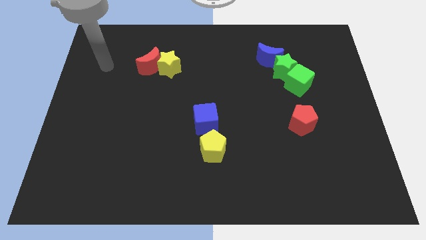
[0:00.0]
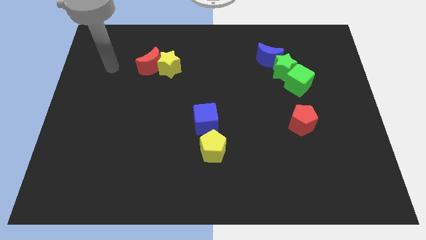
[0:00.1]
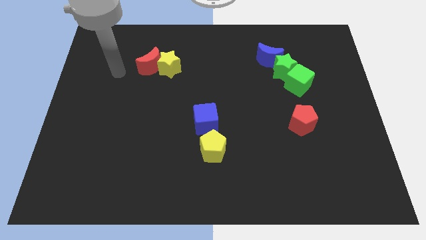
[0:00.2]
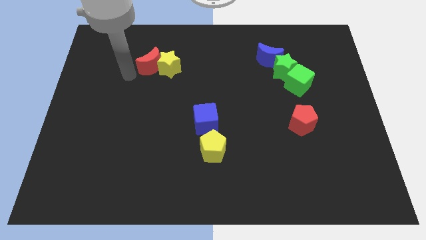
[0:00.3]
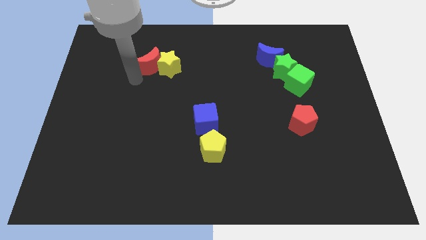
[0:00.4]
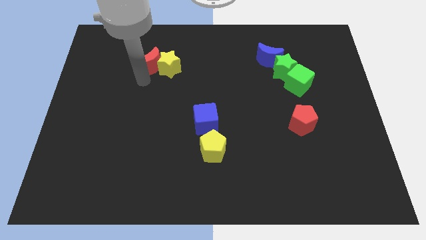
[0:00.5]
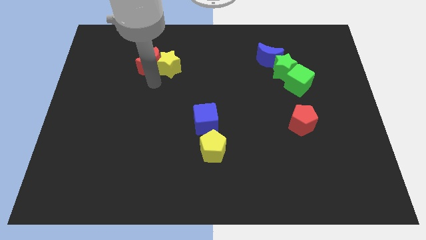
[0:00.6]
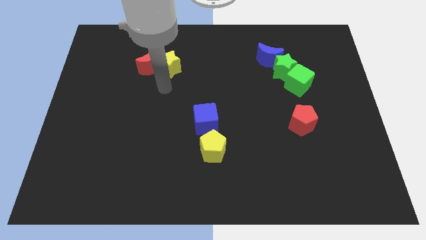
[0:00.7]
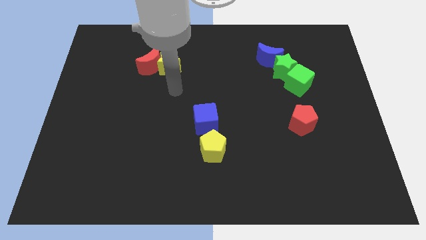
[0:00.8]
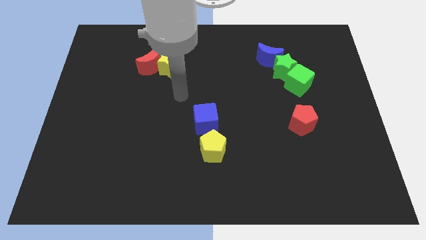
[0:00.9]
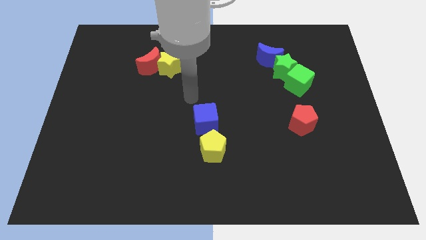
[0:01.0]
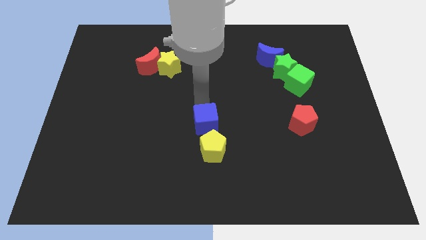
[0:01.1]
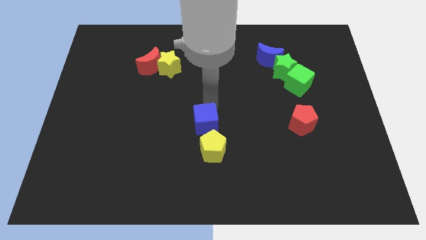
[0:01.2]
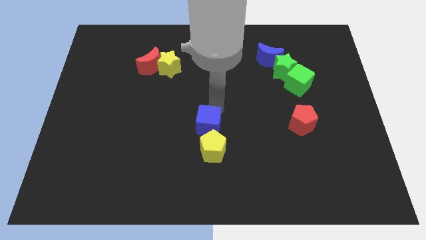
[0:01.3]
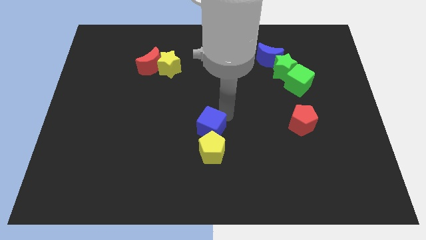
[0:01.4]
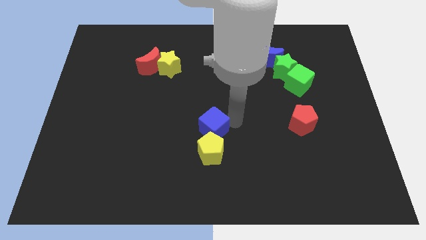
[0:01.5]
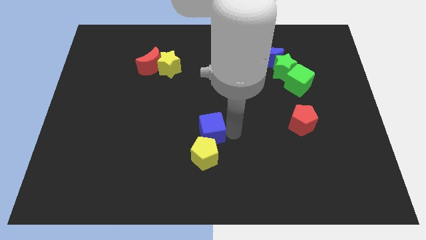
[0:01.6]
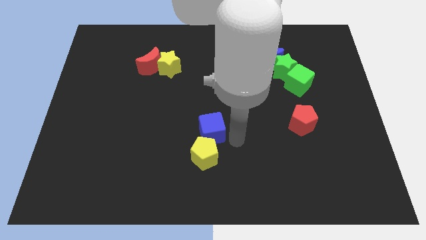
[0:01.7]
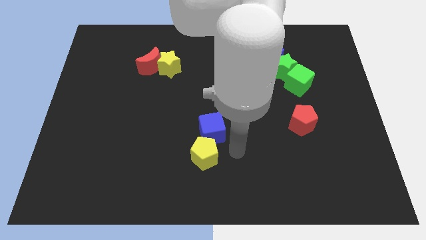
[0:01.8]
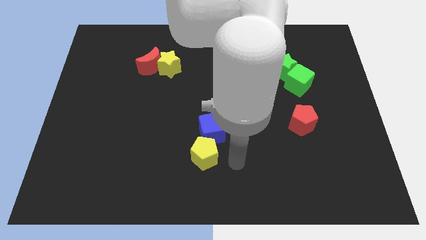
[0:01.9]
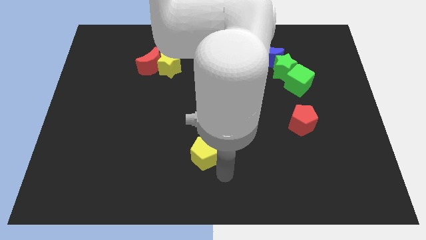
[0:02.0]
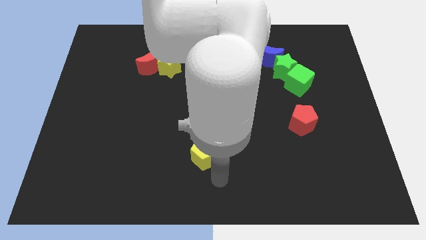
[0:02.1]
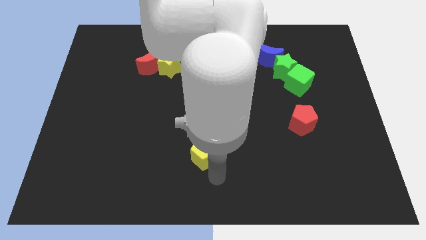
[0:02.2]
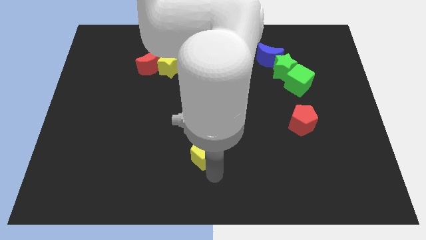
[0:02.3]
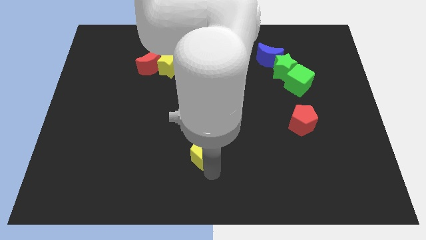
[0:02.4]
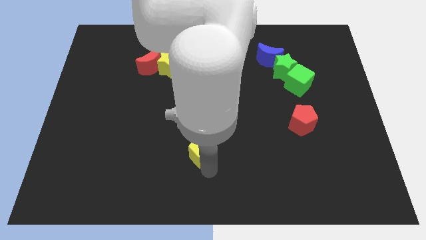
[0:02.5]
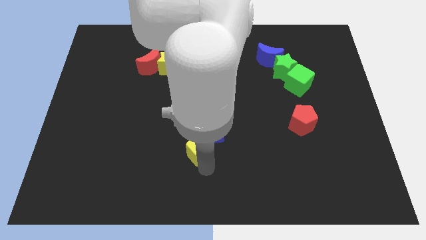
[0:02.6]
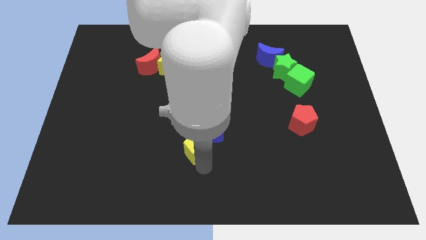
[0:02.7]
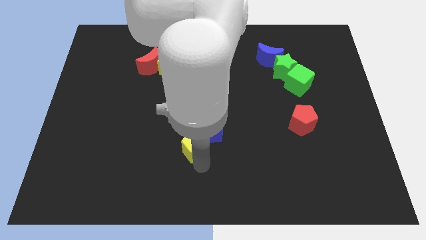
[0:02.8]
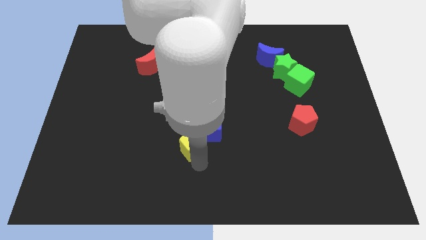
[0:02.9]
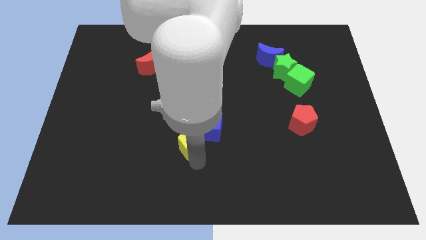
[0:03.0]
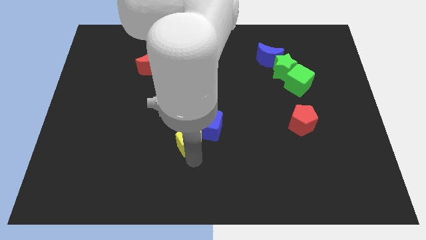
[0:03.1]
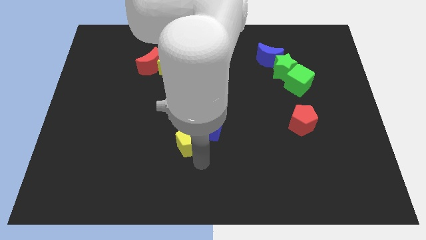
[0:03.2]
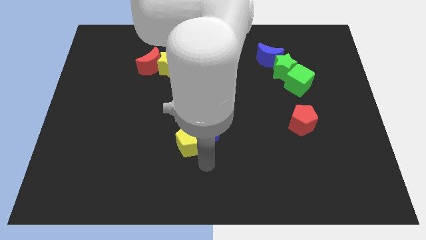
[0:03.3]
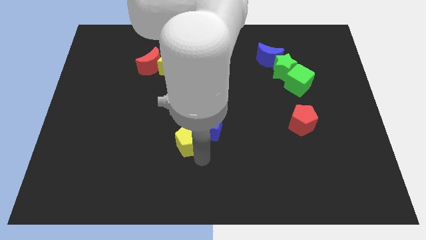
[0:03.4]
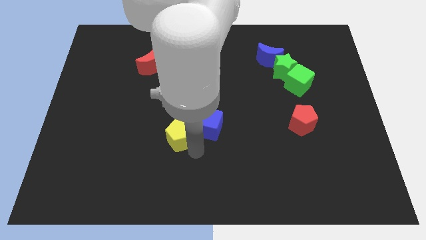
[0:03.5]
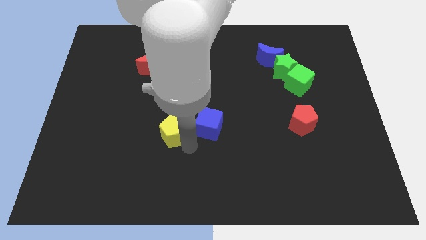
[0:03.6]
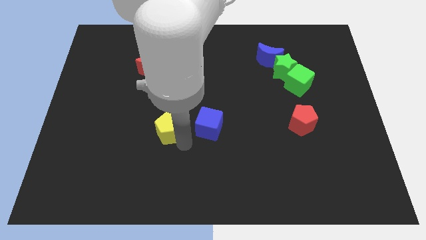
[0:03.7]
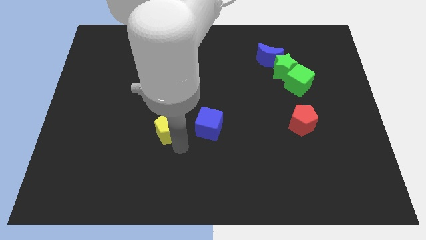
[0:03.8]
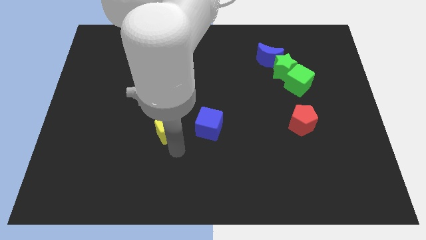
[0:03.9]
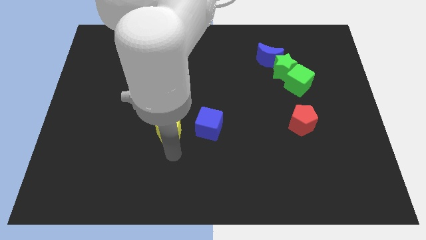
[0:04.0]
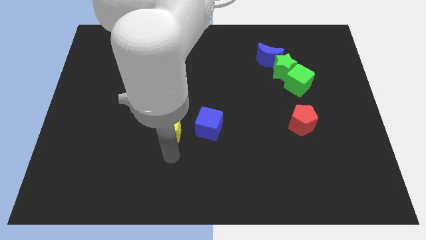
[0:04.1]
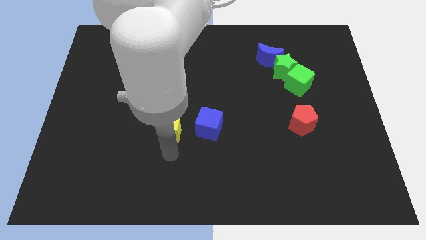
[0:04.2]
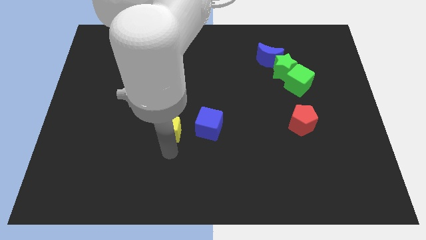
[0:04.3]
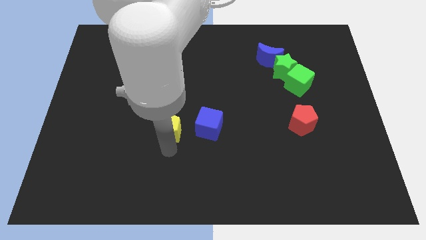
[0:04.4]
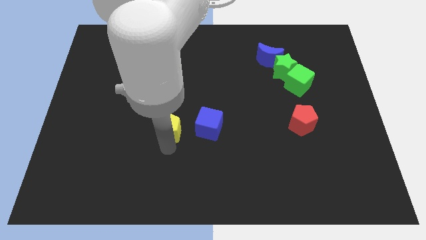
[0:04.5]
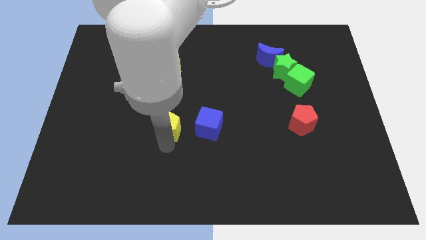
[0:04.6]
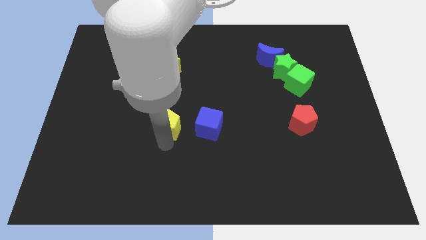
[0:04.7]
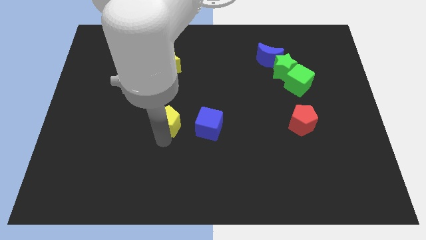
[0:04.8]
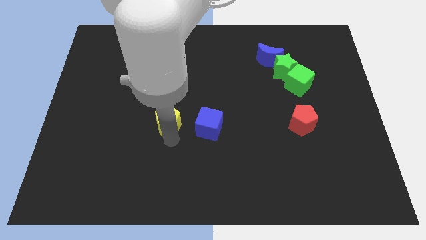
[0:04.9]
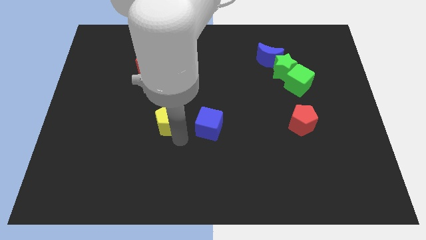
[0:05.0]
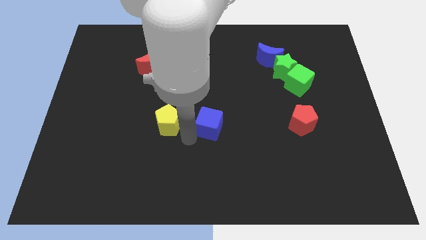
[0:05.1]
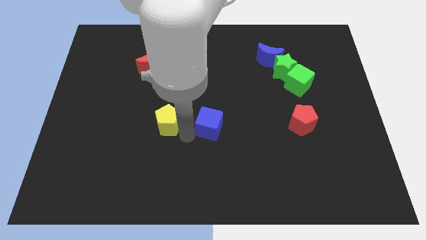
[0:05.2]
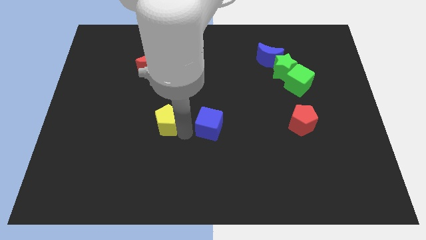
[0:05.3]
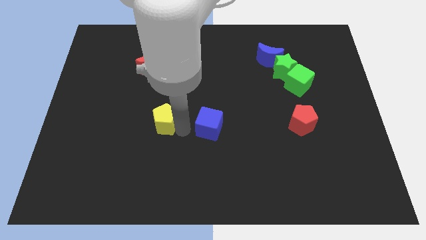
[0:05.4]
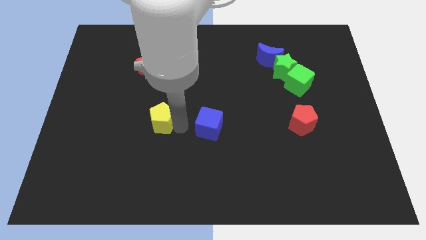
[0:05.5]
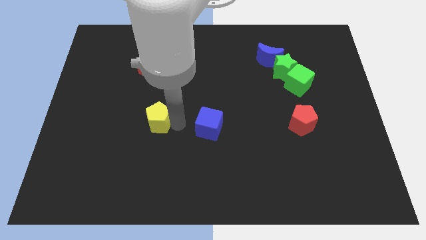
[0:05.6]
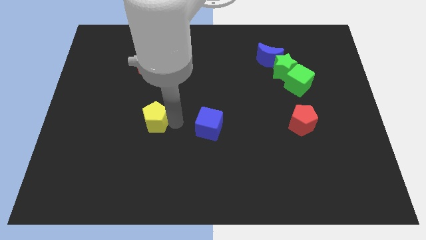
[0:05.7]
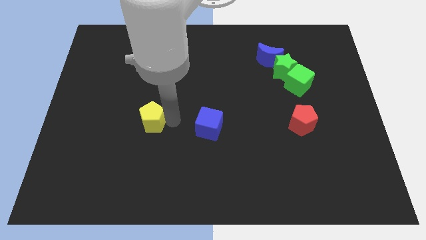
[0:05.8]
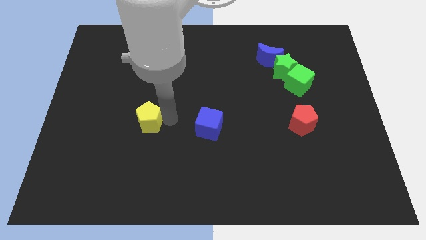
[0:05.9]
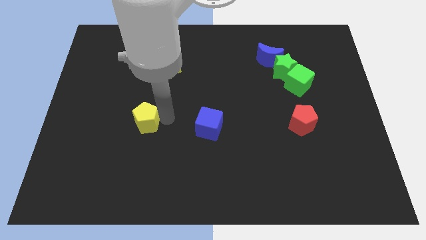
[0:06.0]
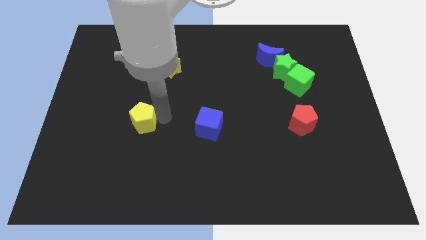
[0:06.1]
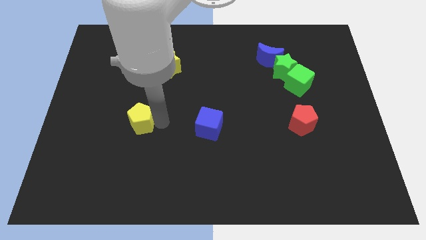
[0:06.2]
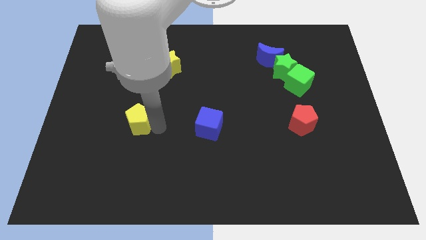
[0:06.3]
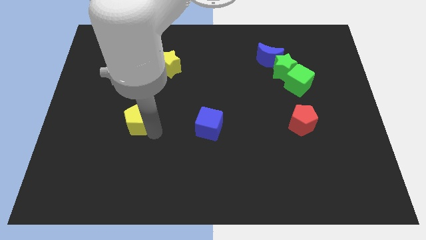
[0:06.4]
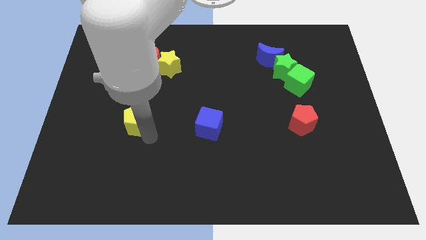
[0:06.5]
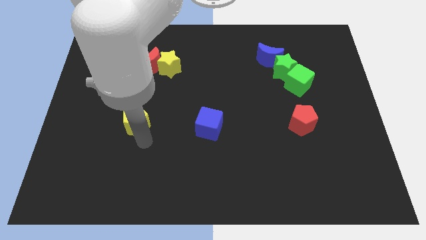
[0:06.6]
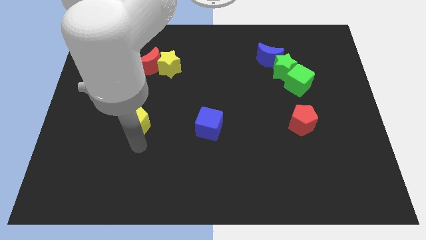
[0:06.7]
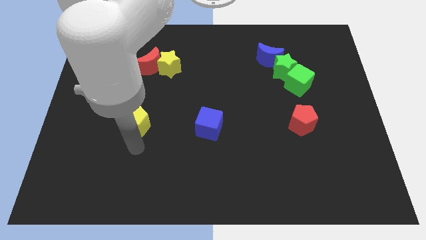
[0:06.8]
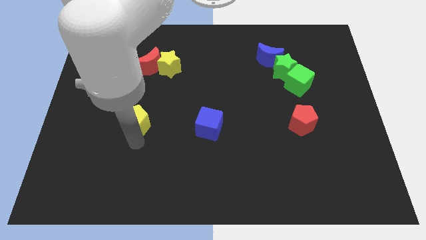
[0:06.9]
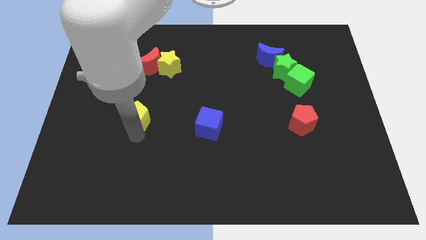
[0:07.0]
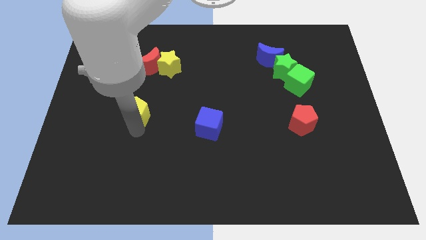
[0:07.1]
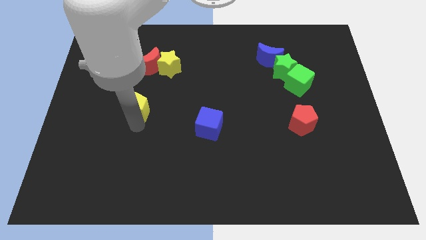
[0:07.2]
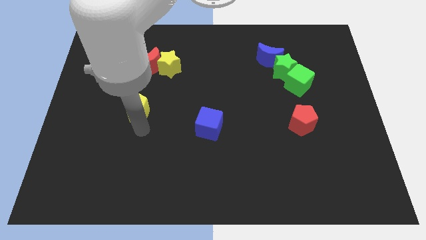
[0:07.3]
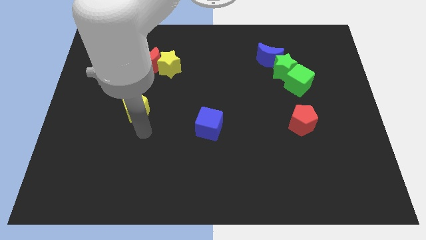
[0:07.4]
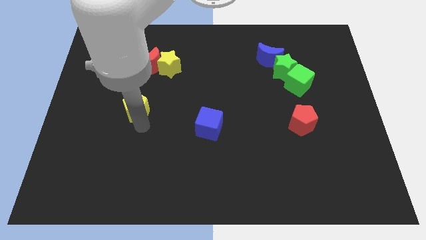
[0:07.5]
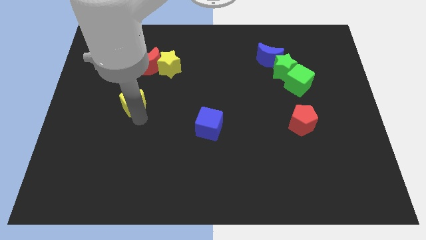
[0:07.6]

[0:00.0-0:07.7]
move the yellow pentagon diagonally up and left

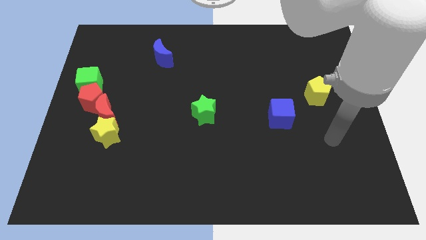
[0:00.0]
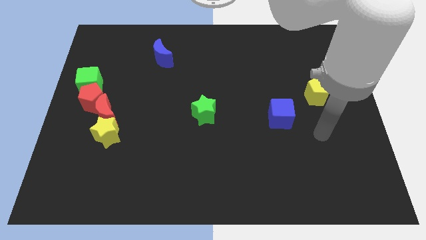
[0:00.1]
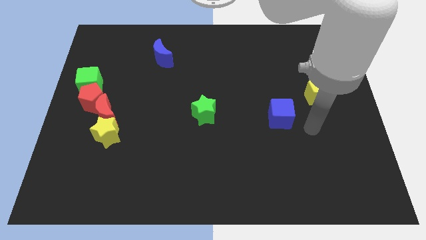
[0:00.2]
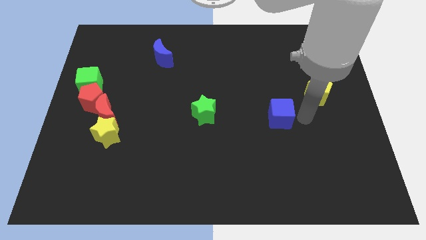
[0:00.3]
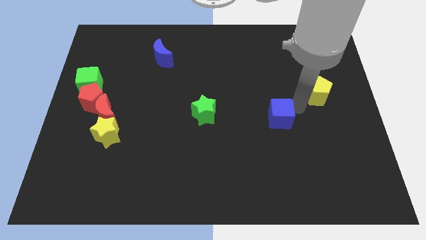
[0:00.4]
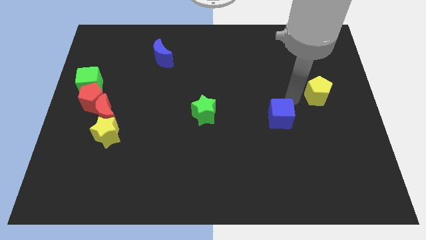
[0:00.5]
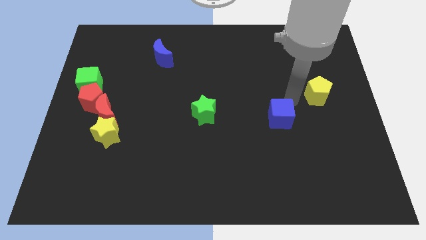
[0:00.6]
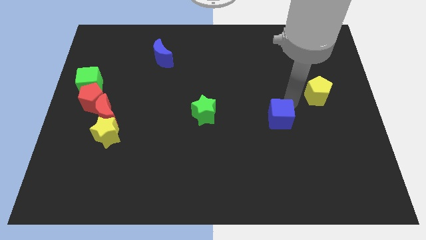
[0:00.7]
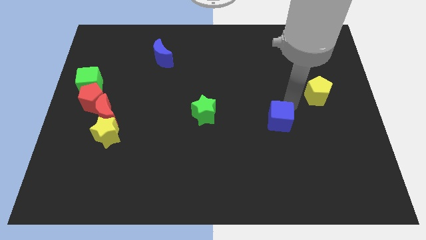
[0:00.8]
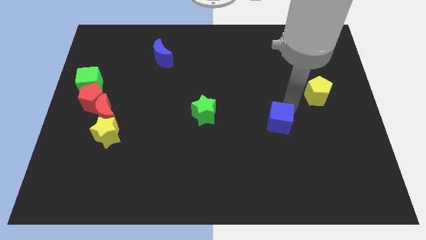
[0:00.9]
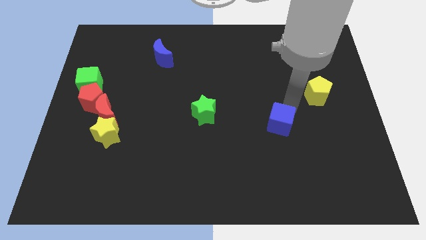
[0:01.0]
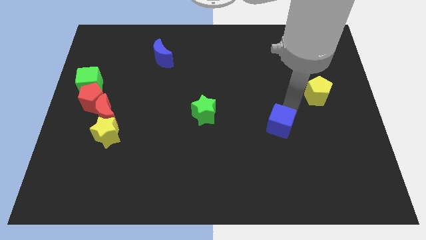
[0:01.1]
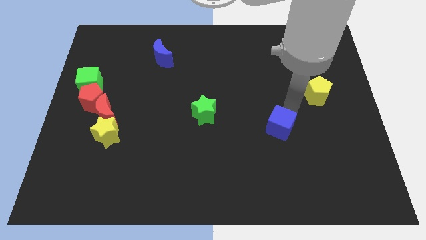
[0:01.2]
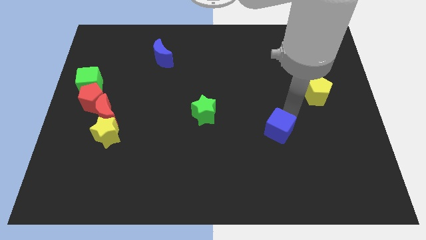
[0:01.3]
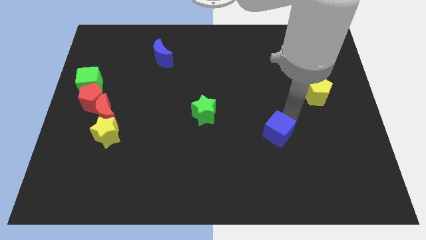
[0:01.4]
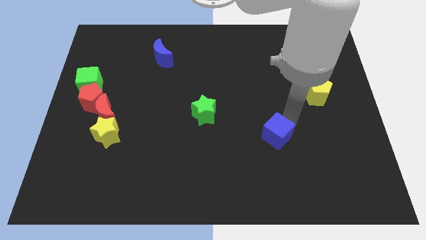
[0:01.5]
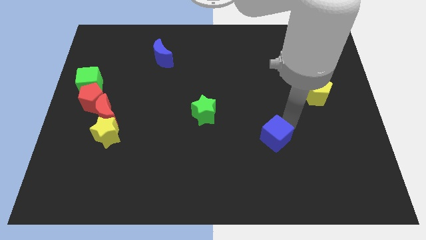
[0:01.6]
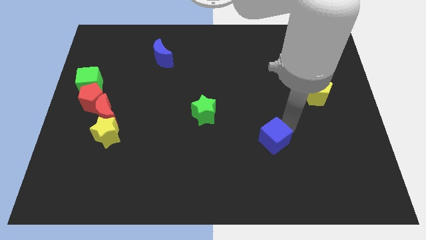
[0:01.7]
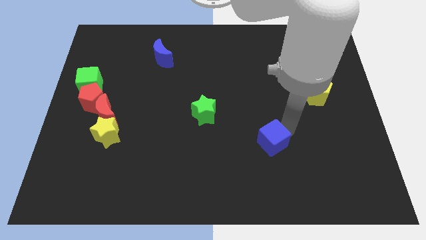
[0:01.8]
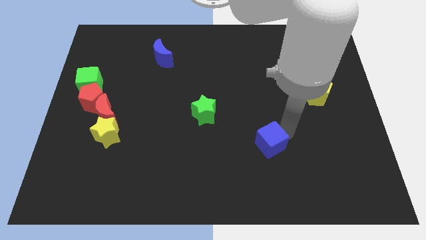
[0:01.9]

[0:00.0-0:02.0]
slightly move the blue cube diagonally down and left
